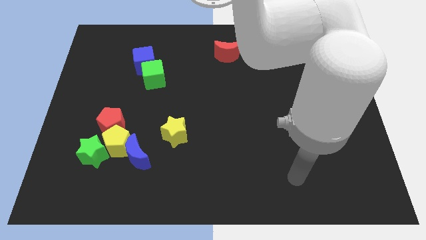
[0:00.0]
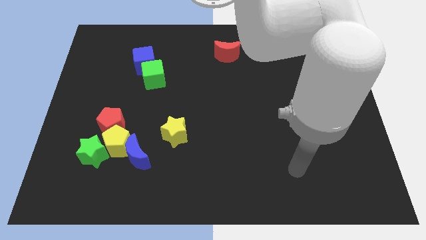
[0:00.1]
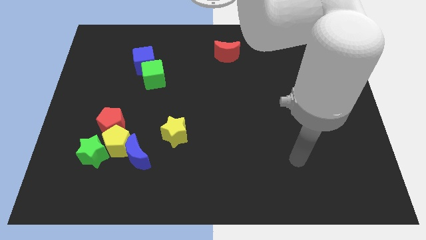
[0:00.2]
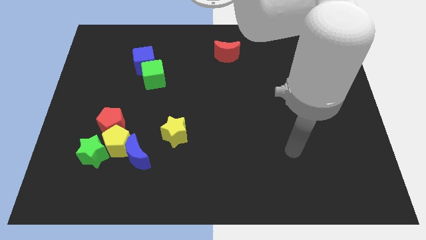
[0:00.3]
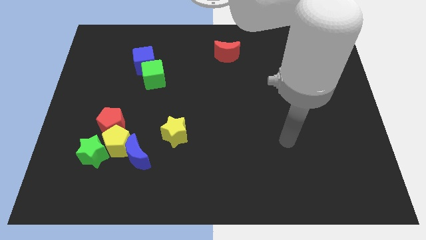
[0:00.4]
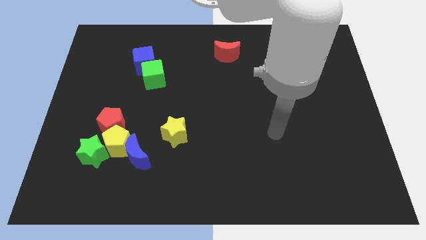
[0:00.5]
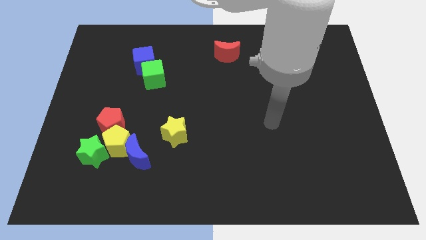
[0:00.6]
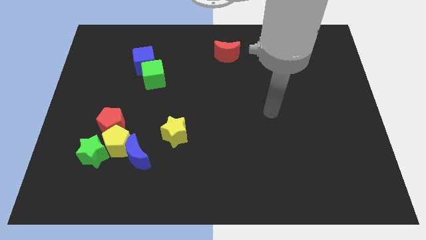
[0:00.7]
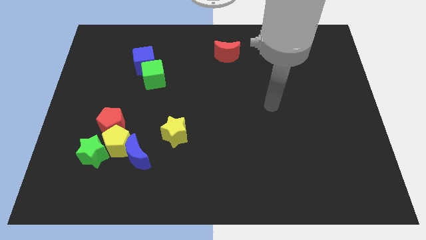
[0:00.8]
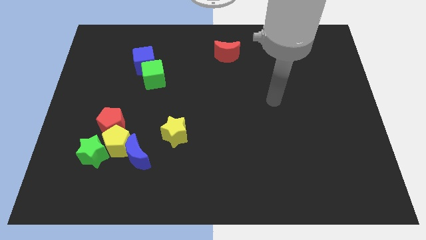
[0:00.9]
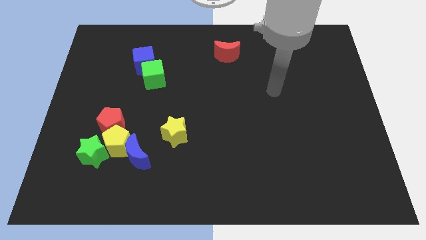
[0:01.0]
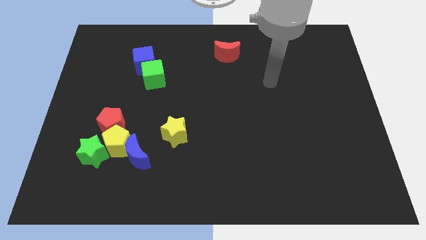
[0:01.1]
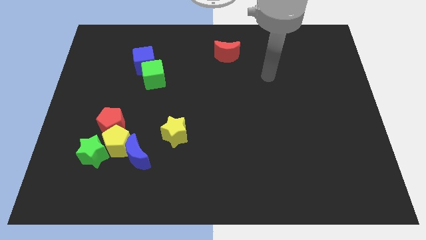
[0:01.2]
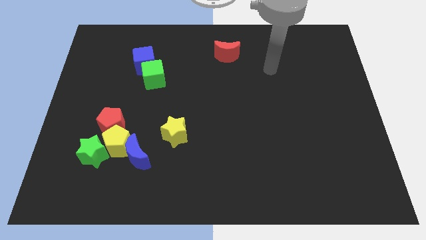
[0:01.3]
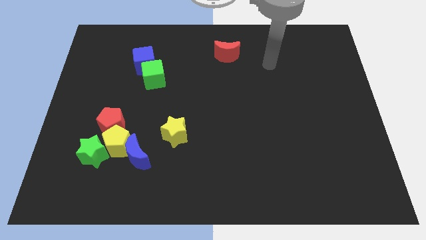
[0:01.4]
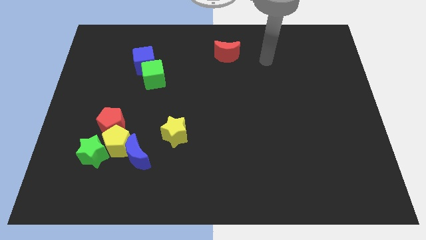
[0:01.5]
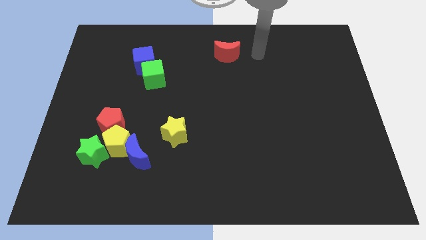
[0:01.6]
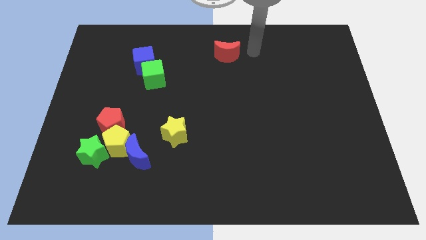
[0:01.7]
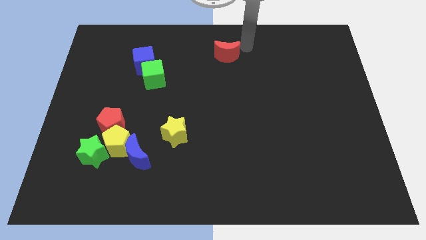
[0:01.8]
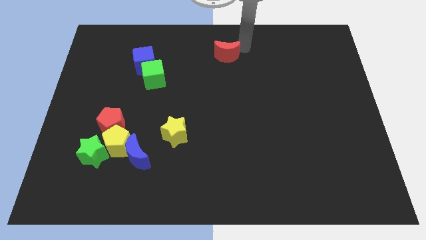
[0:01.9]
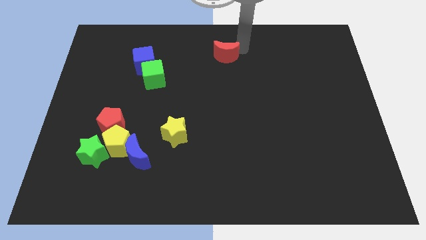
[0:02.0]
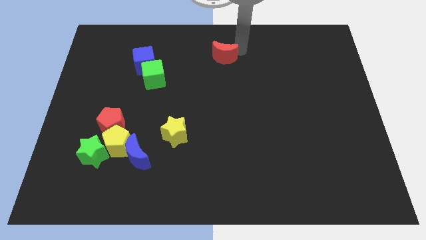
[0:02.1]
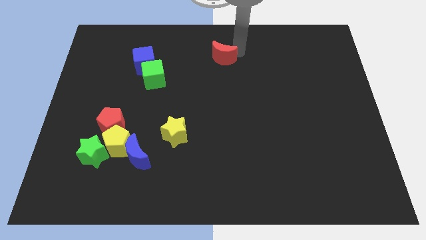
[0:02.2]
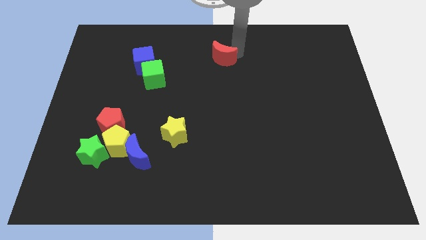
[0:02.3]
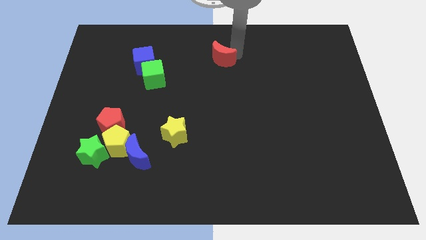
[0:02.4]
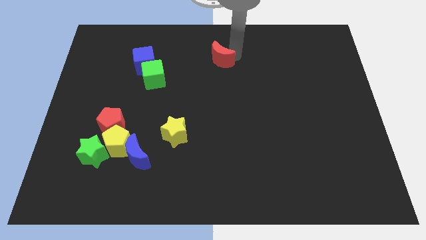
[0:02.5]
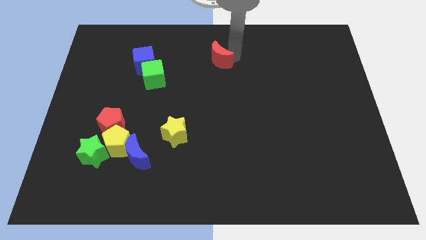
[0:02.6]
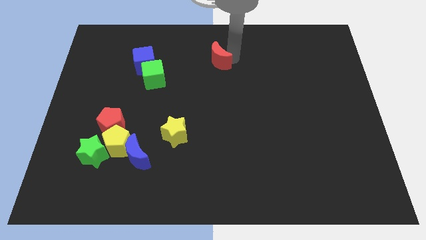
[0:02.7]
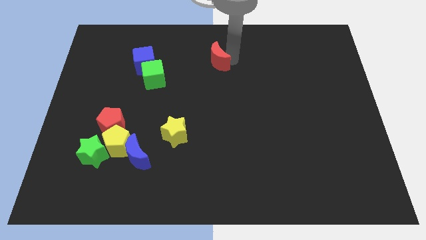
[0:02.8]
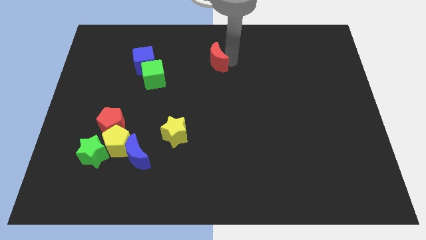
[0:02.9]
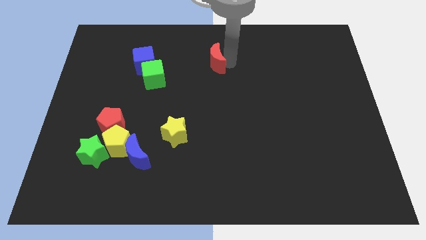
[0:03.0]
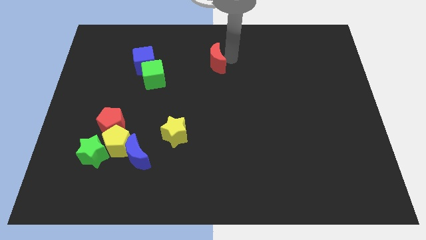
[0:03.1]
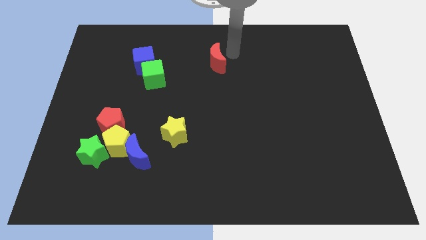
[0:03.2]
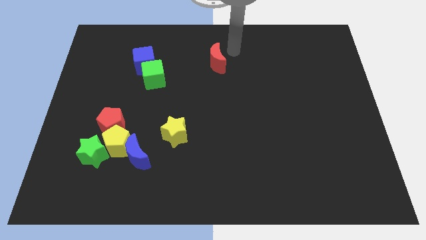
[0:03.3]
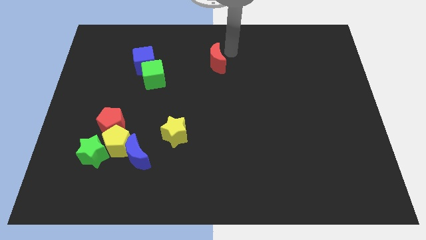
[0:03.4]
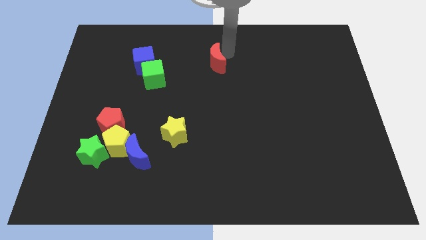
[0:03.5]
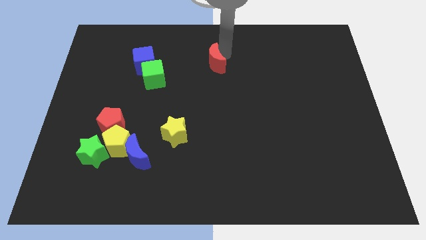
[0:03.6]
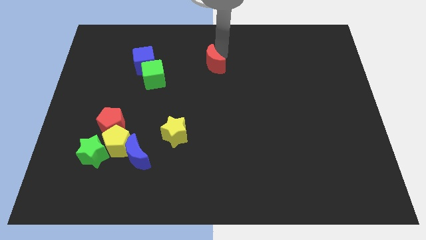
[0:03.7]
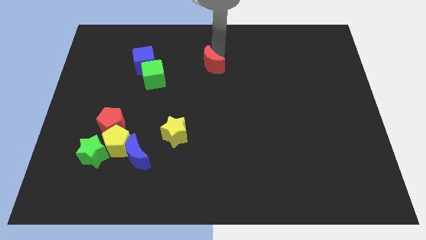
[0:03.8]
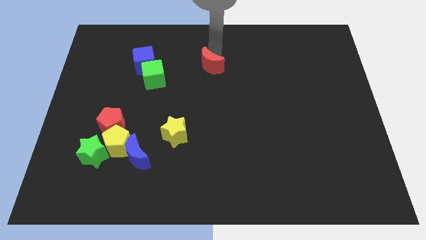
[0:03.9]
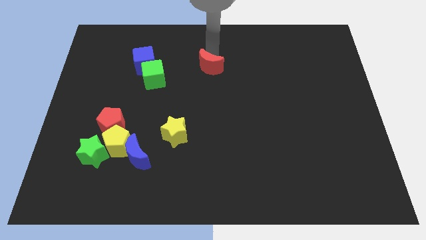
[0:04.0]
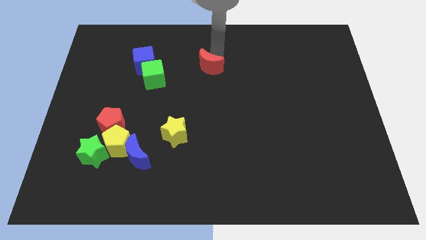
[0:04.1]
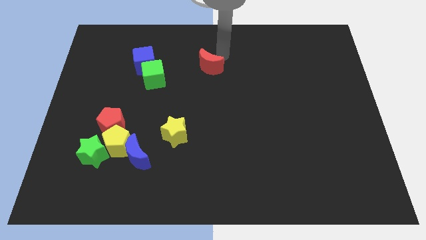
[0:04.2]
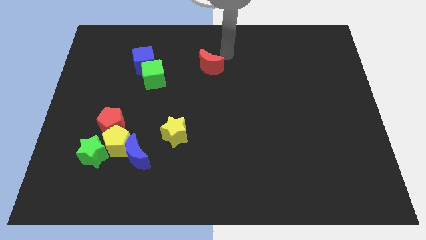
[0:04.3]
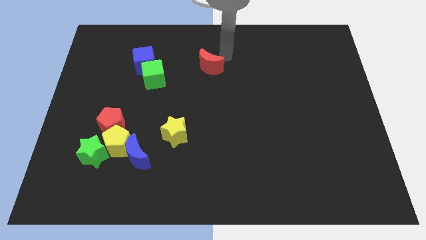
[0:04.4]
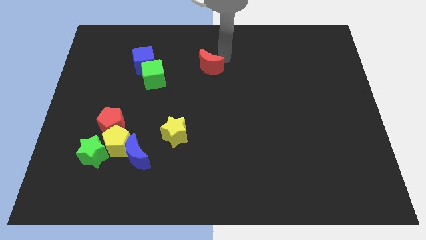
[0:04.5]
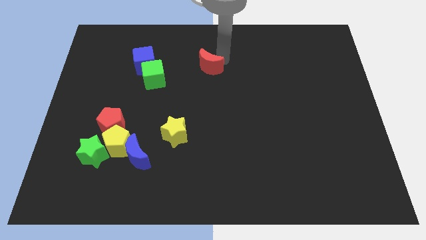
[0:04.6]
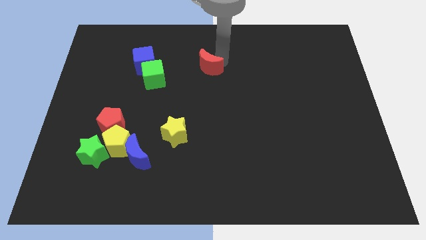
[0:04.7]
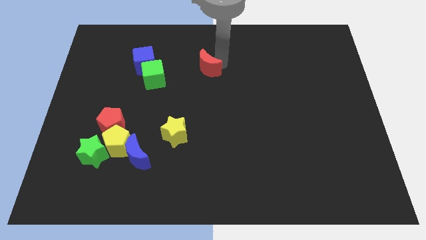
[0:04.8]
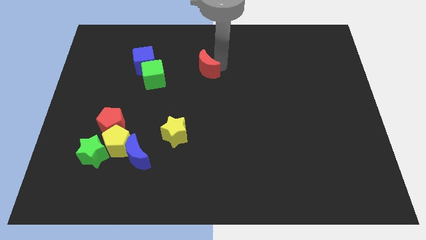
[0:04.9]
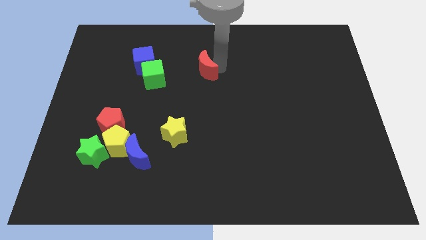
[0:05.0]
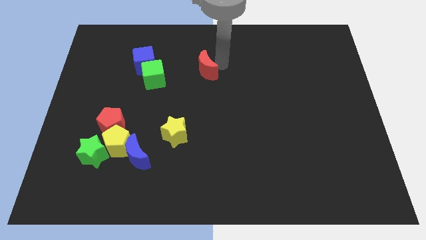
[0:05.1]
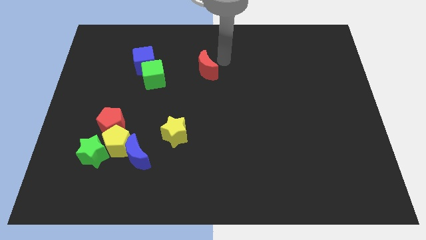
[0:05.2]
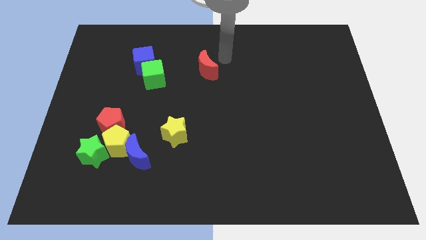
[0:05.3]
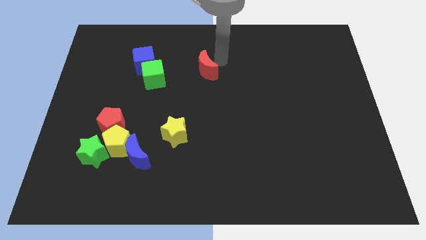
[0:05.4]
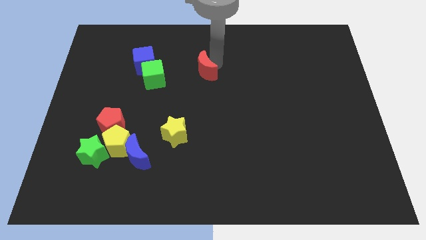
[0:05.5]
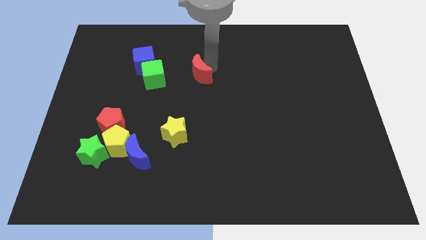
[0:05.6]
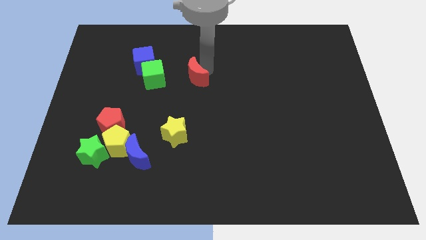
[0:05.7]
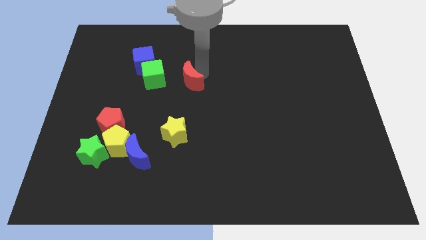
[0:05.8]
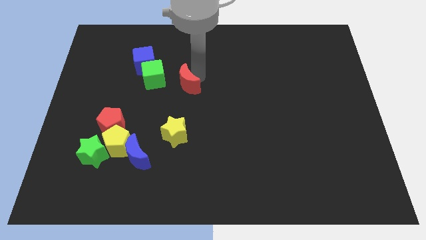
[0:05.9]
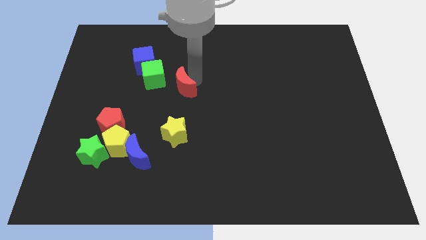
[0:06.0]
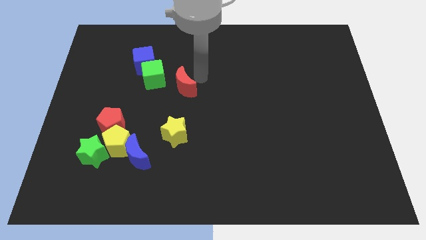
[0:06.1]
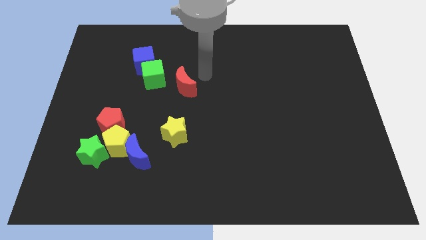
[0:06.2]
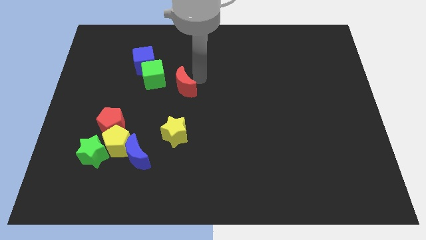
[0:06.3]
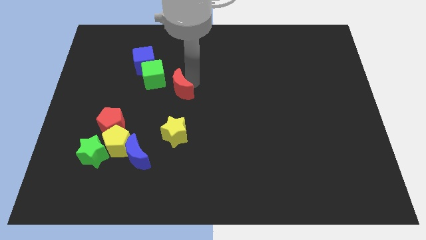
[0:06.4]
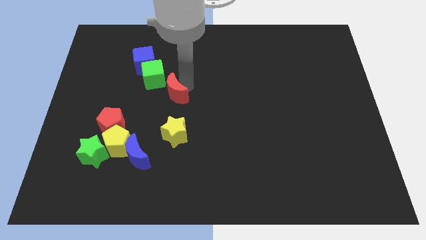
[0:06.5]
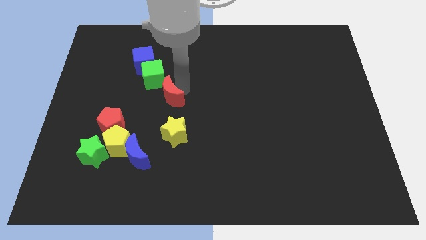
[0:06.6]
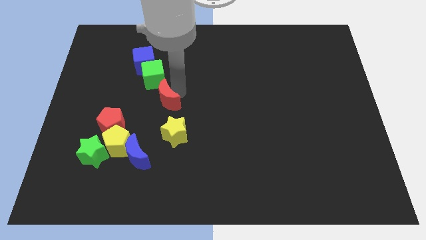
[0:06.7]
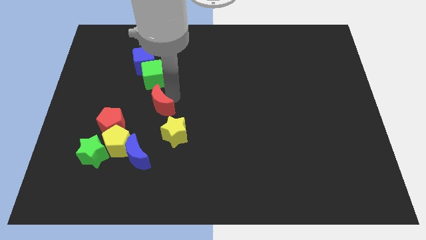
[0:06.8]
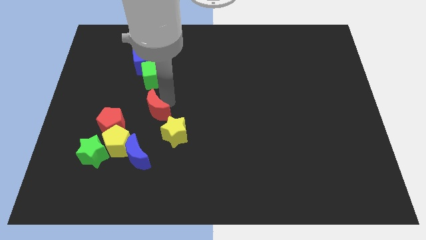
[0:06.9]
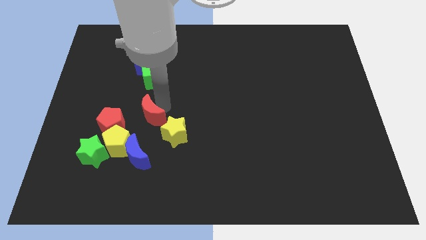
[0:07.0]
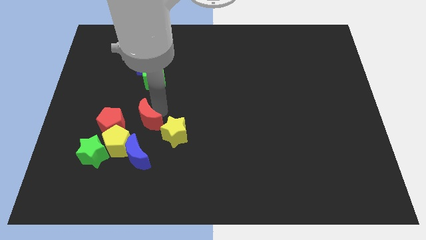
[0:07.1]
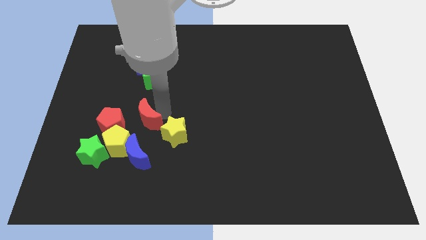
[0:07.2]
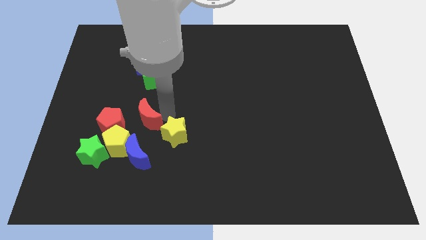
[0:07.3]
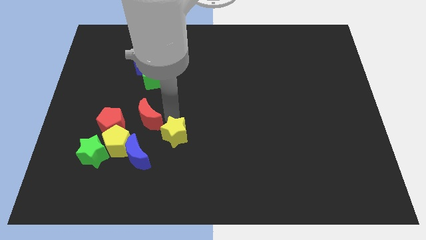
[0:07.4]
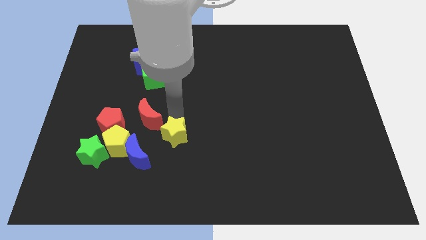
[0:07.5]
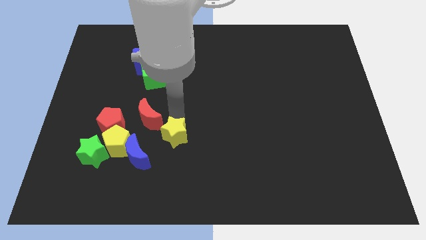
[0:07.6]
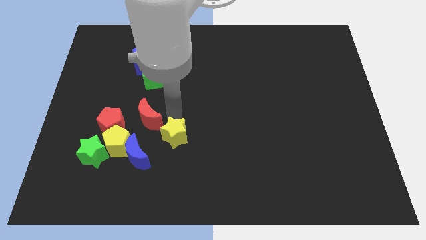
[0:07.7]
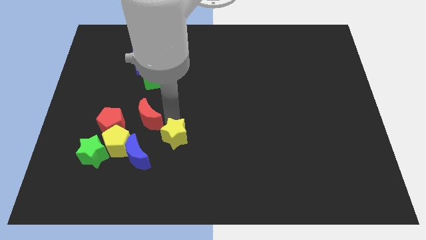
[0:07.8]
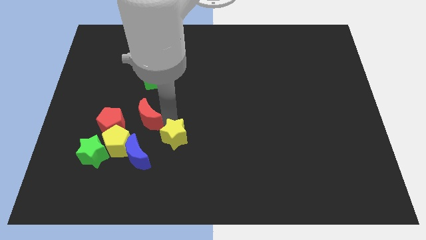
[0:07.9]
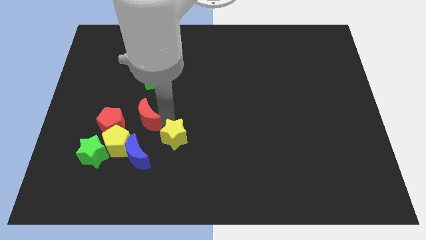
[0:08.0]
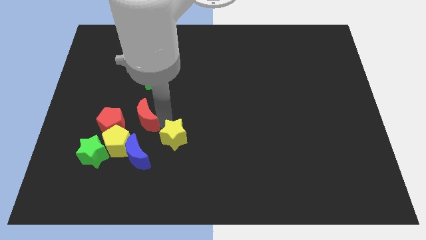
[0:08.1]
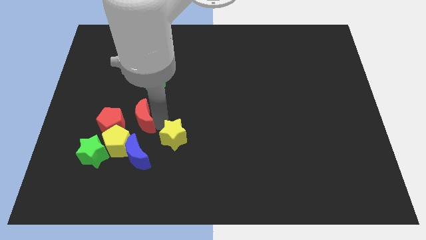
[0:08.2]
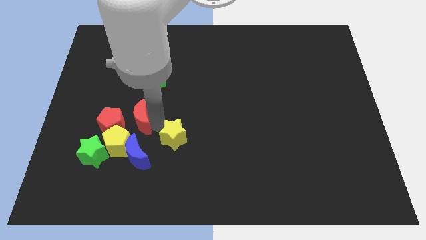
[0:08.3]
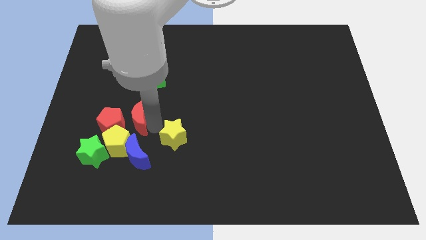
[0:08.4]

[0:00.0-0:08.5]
move the red moon towards the red pentagon
